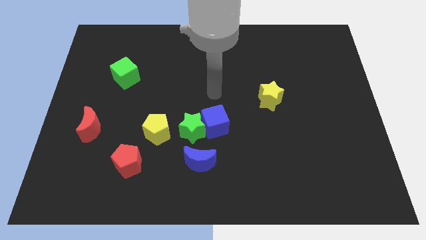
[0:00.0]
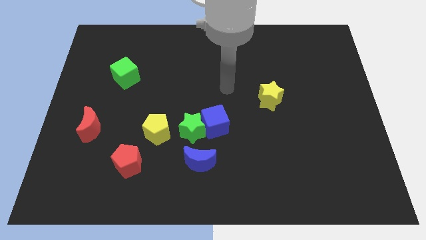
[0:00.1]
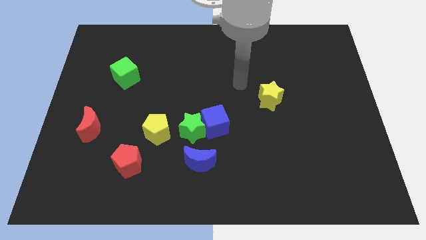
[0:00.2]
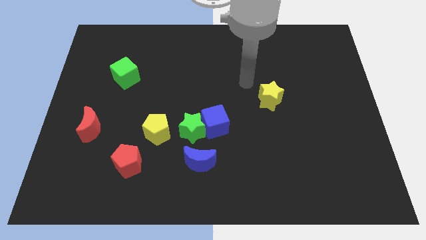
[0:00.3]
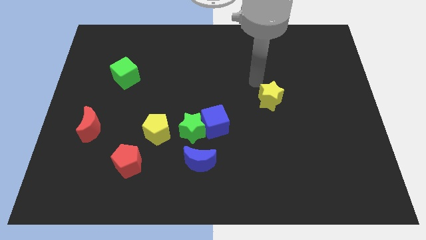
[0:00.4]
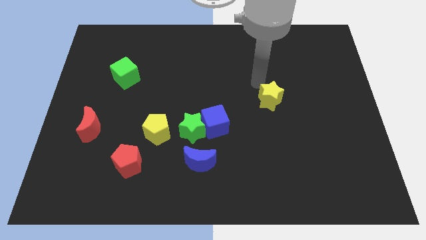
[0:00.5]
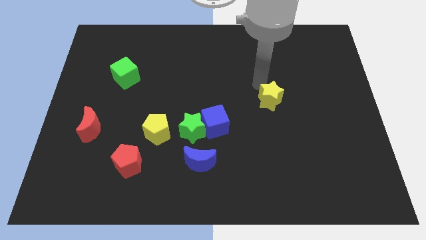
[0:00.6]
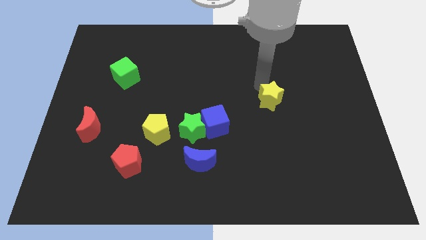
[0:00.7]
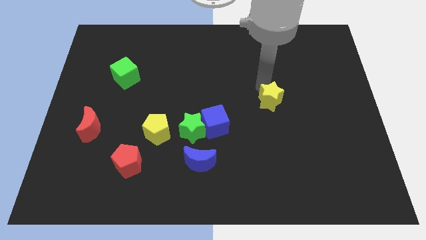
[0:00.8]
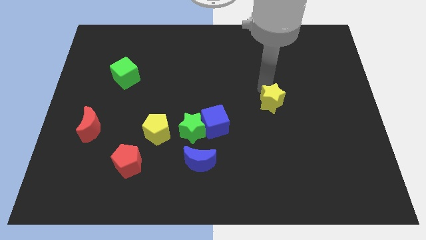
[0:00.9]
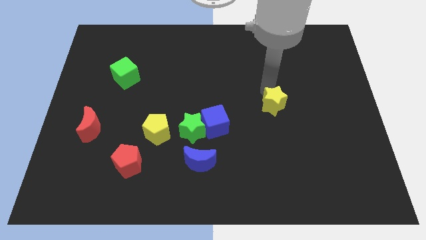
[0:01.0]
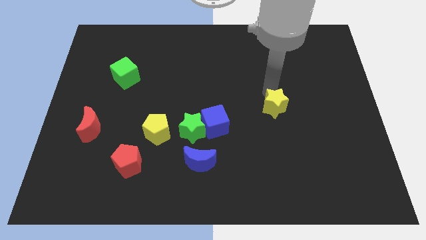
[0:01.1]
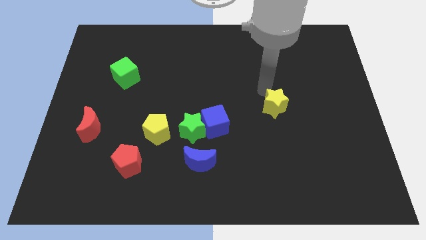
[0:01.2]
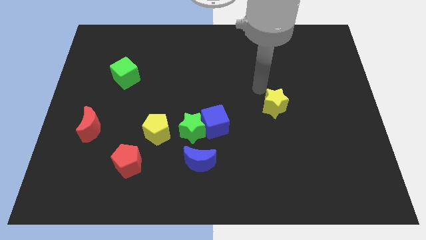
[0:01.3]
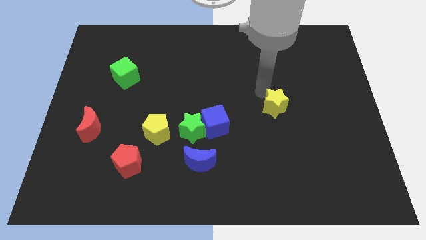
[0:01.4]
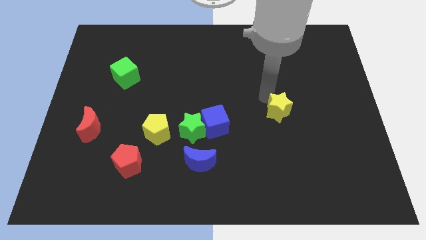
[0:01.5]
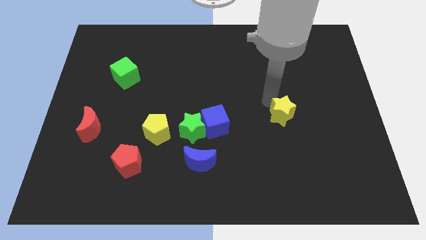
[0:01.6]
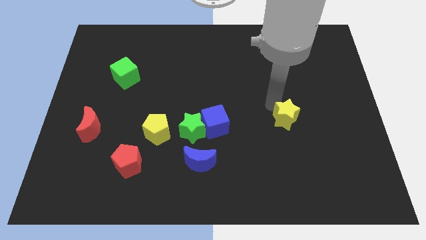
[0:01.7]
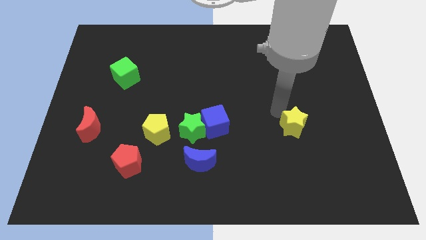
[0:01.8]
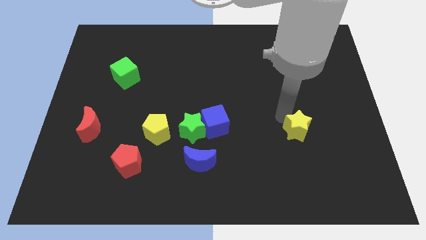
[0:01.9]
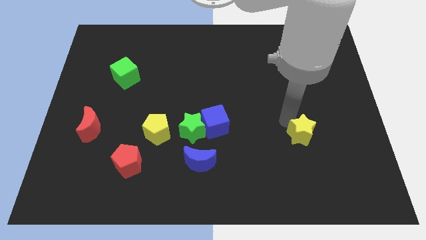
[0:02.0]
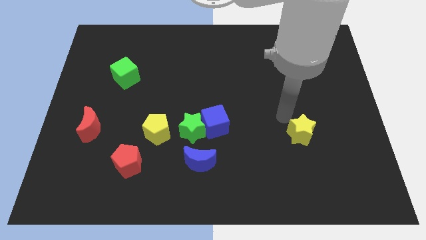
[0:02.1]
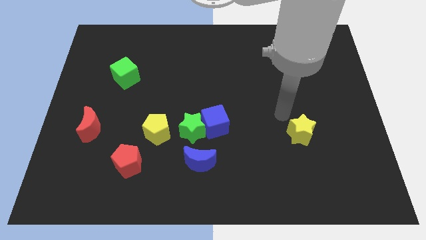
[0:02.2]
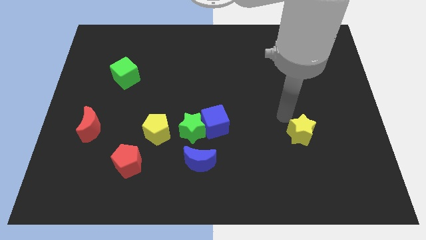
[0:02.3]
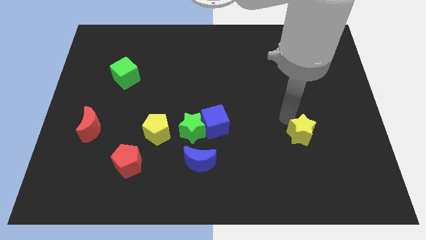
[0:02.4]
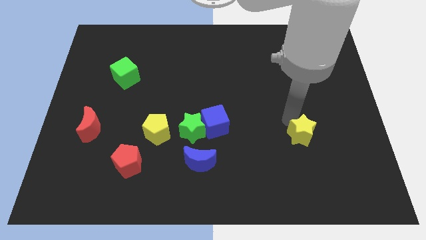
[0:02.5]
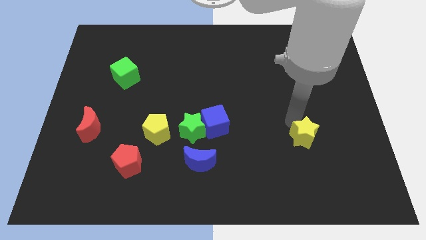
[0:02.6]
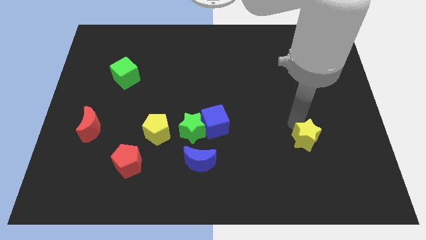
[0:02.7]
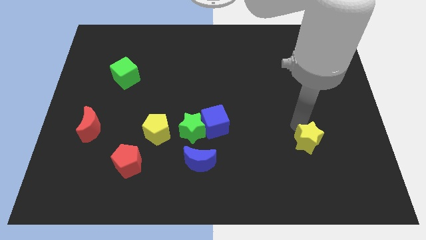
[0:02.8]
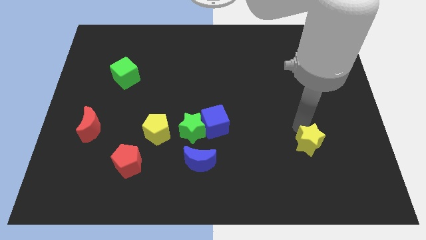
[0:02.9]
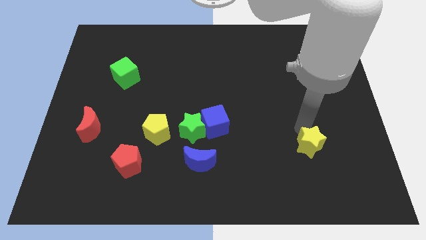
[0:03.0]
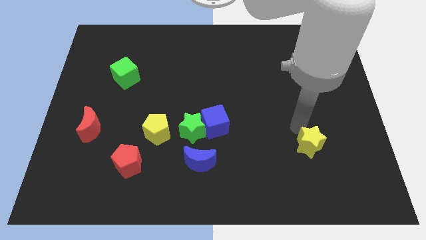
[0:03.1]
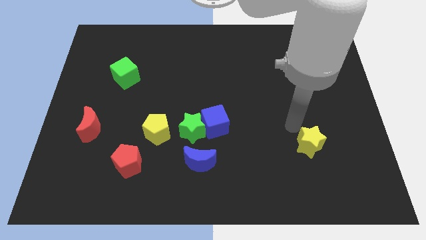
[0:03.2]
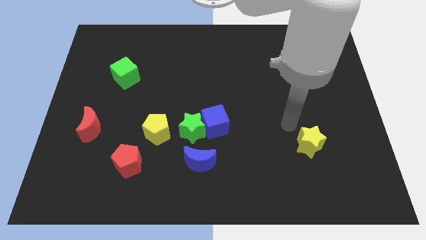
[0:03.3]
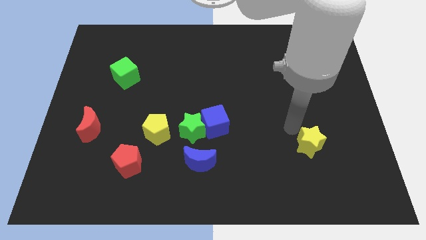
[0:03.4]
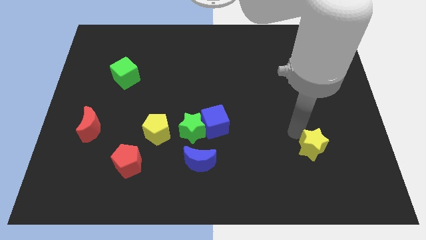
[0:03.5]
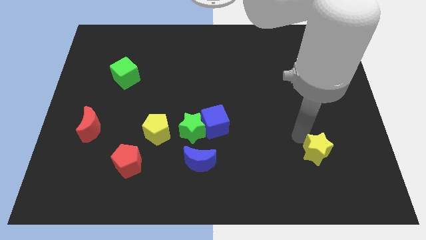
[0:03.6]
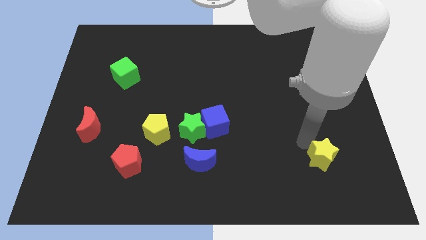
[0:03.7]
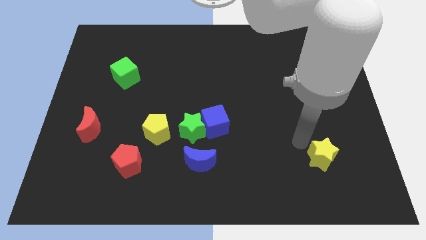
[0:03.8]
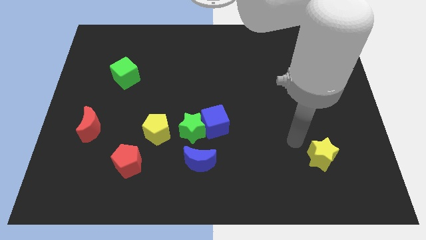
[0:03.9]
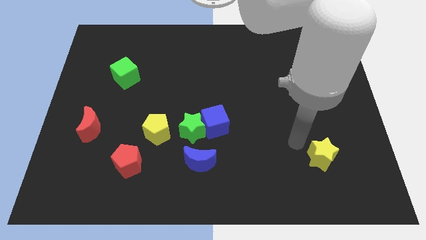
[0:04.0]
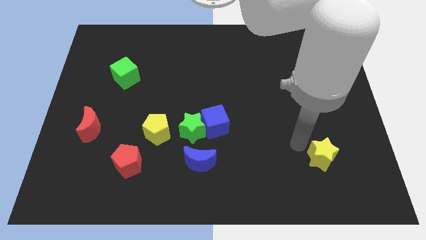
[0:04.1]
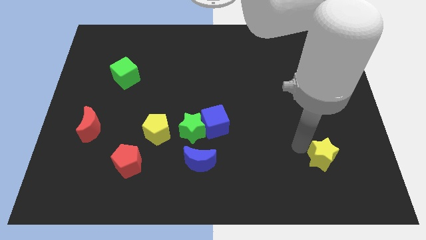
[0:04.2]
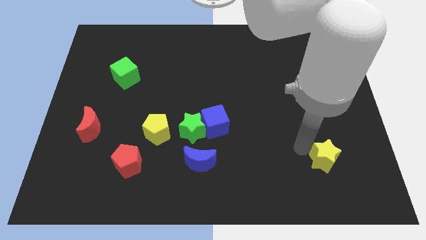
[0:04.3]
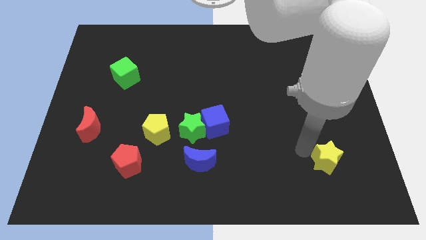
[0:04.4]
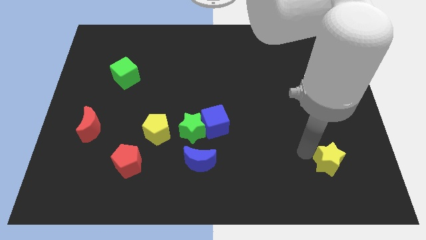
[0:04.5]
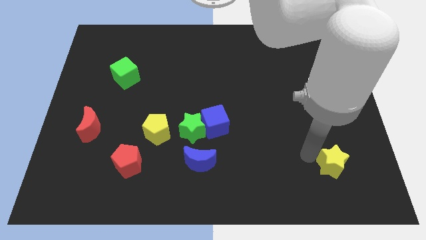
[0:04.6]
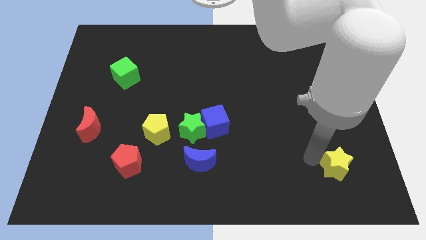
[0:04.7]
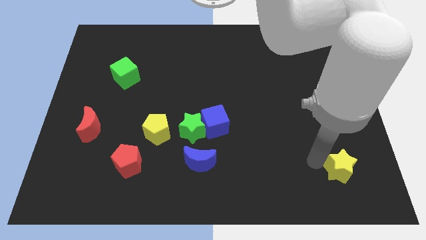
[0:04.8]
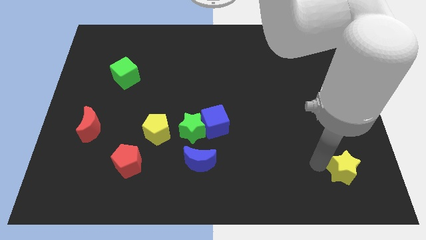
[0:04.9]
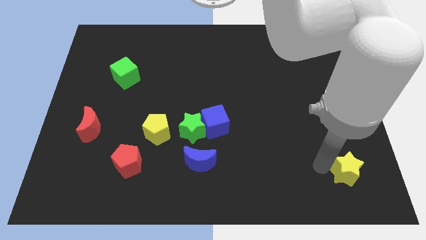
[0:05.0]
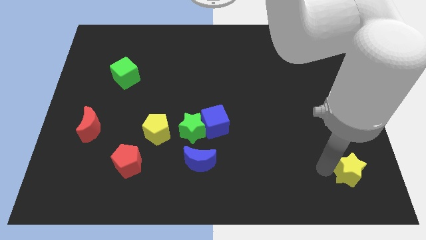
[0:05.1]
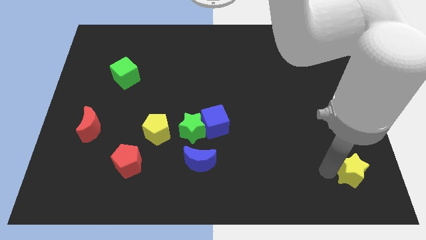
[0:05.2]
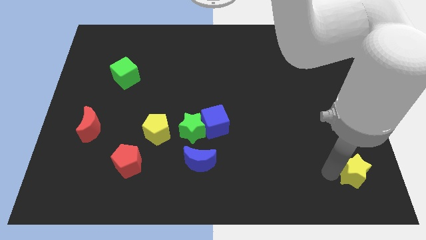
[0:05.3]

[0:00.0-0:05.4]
put the yellow star to the bottom right

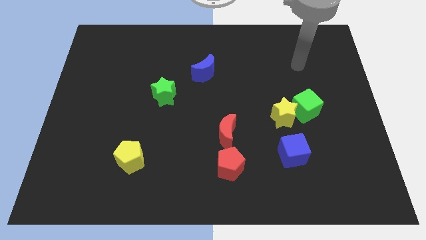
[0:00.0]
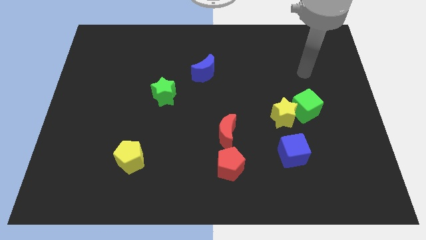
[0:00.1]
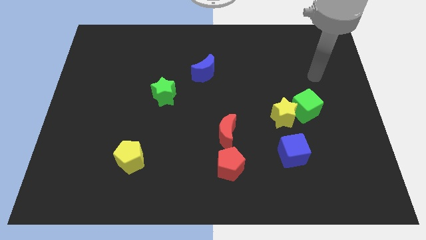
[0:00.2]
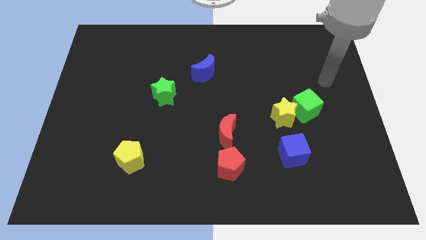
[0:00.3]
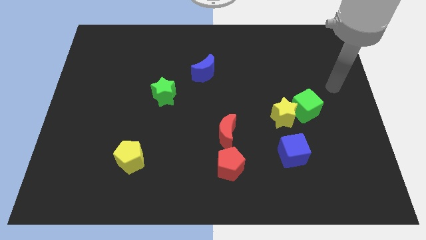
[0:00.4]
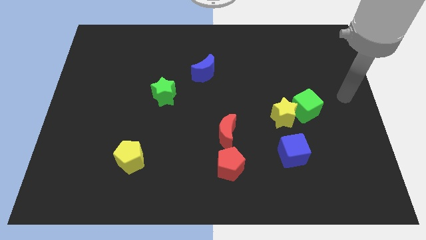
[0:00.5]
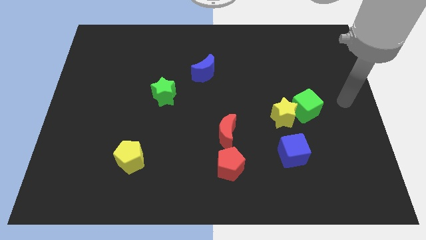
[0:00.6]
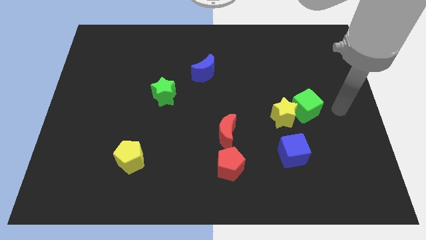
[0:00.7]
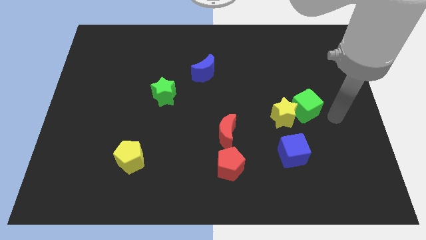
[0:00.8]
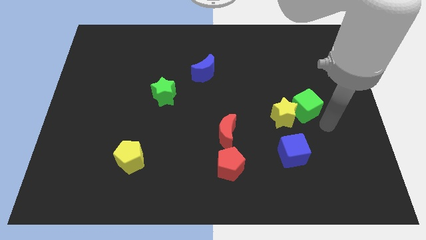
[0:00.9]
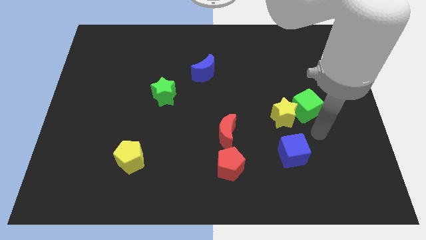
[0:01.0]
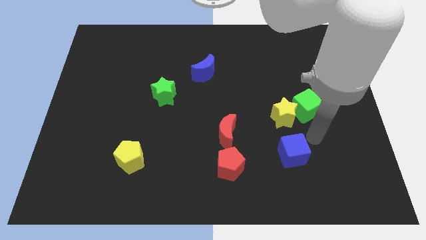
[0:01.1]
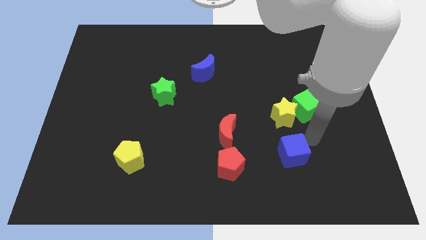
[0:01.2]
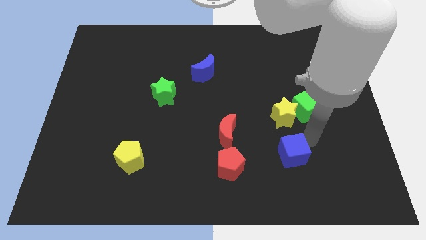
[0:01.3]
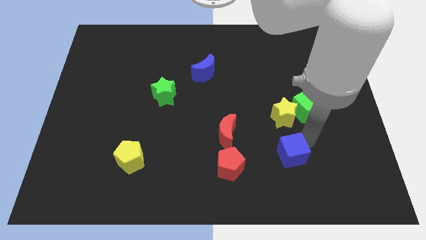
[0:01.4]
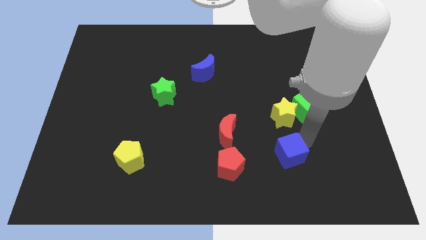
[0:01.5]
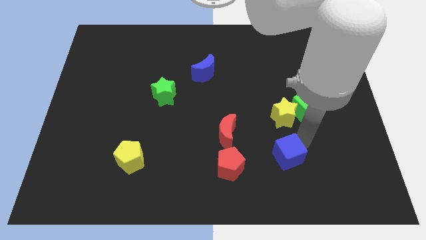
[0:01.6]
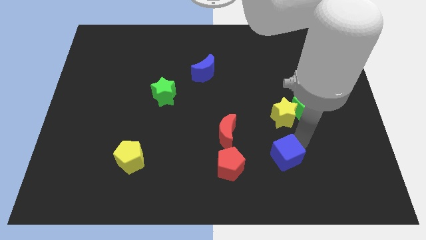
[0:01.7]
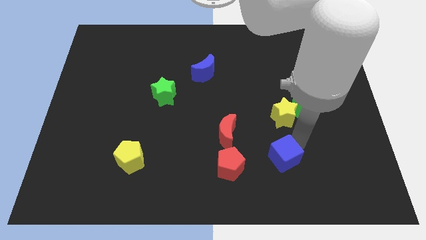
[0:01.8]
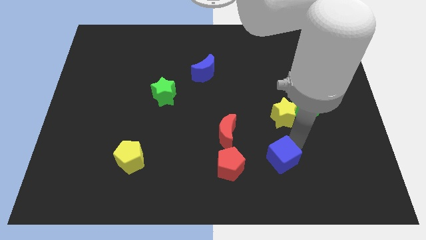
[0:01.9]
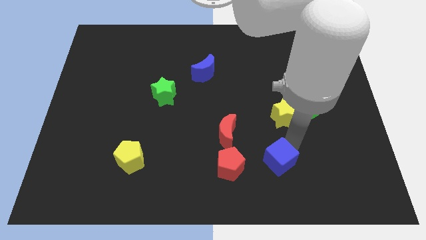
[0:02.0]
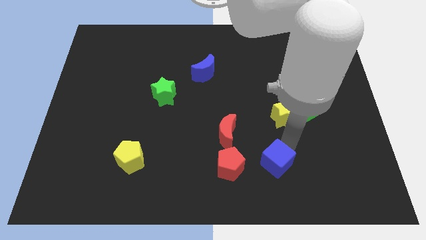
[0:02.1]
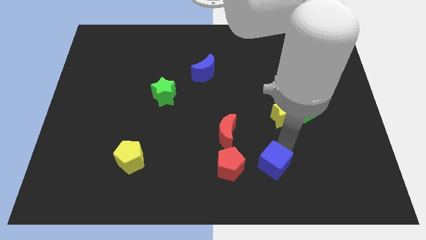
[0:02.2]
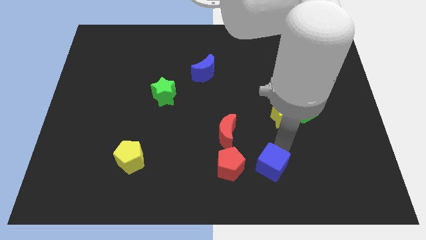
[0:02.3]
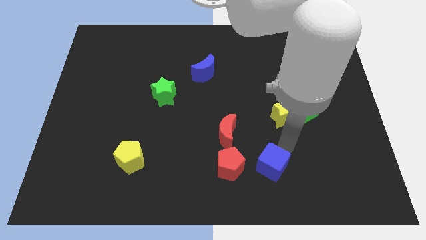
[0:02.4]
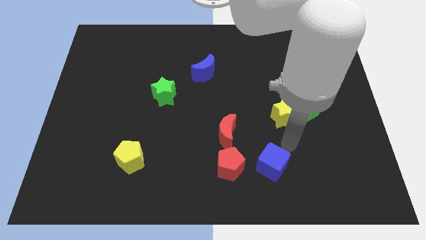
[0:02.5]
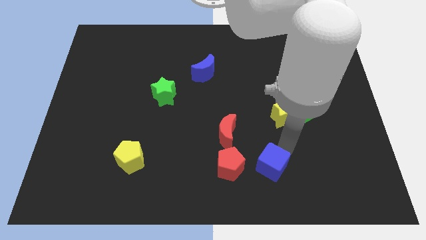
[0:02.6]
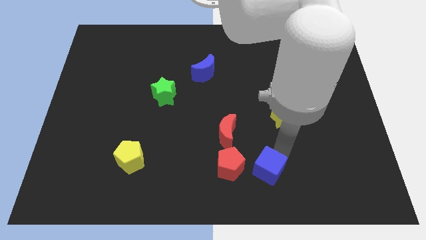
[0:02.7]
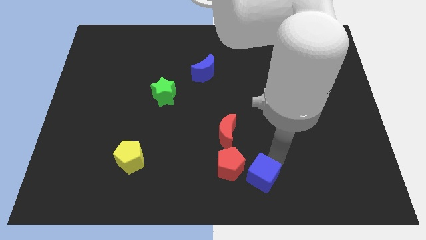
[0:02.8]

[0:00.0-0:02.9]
slide the blue cube to the bottom side
